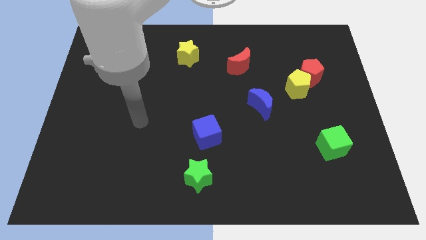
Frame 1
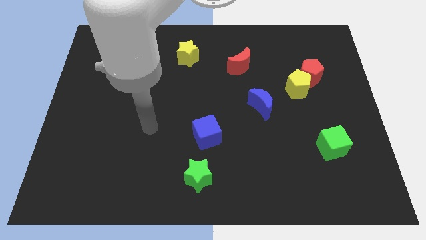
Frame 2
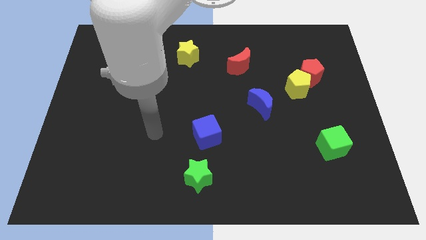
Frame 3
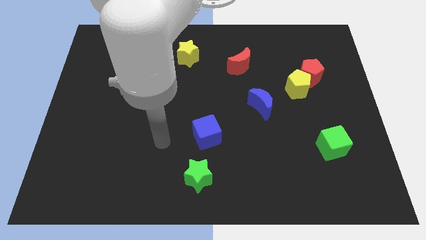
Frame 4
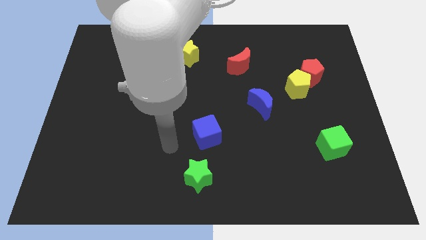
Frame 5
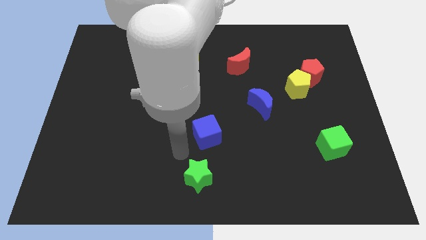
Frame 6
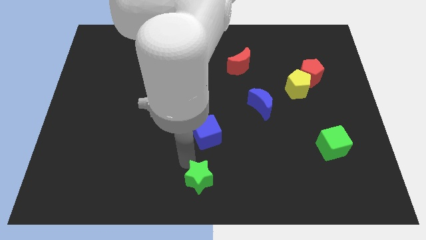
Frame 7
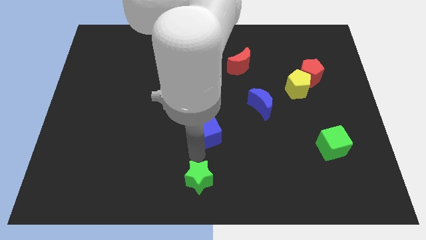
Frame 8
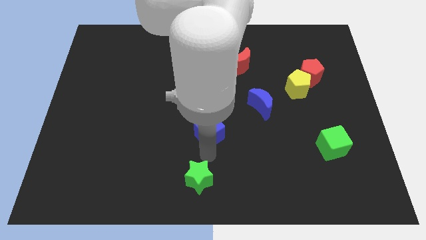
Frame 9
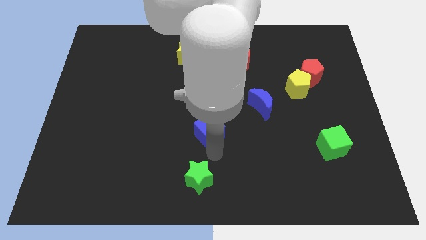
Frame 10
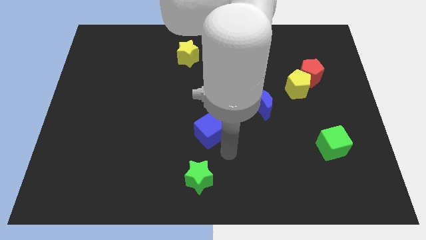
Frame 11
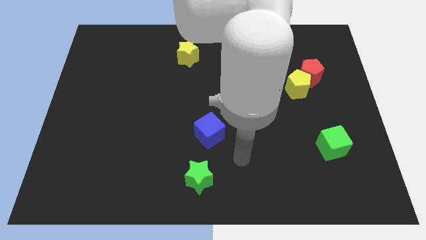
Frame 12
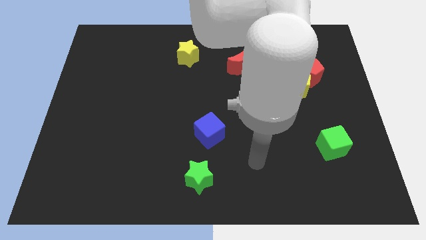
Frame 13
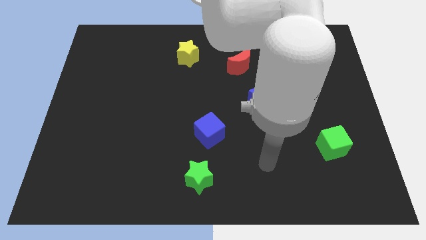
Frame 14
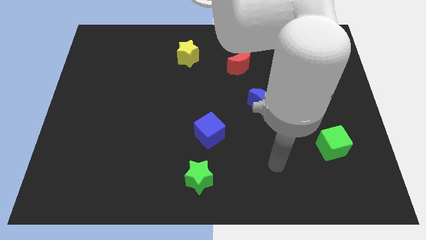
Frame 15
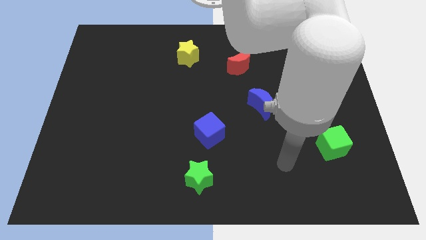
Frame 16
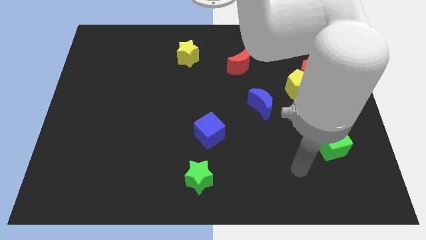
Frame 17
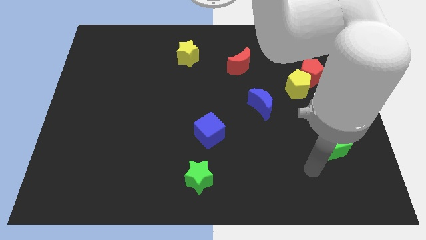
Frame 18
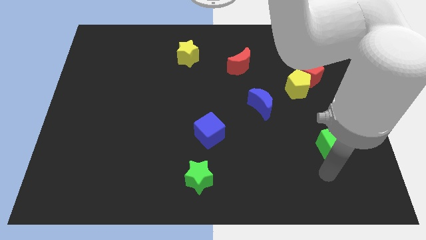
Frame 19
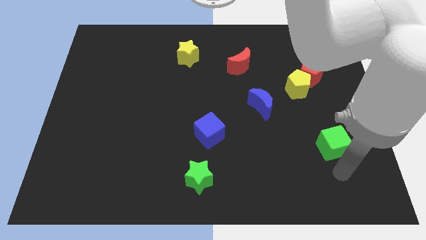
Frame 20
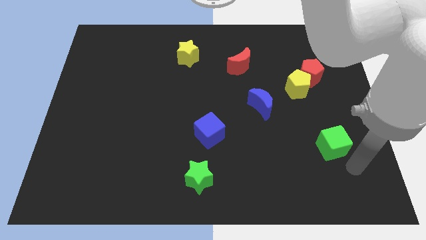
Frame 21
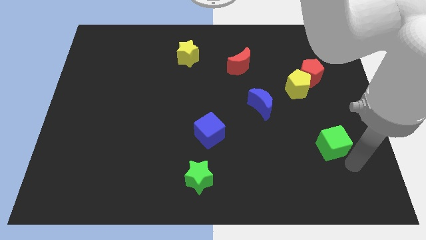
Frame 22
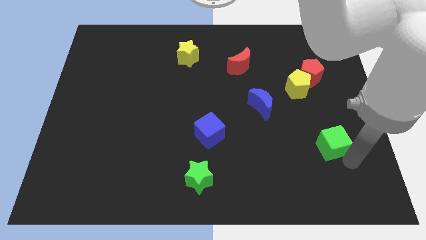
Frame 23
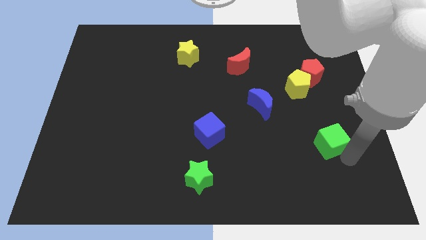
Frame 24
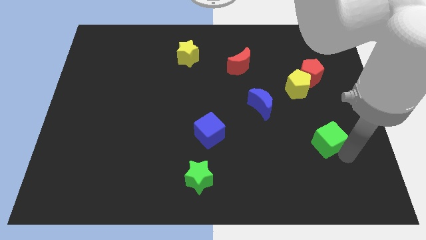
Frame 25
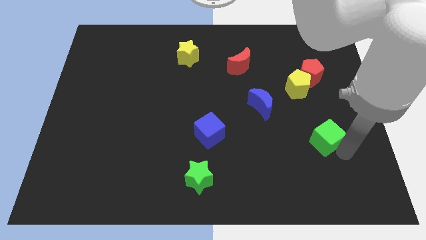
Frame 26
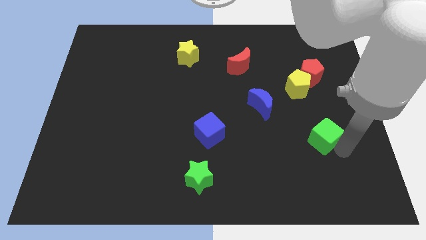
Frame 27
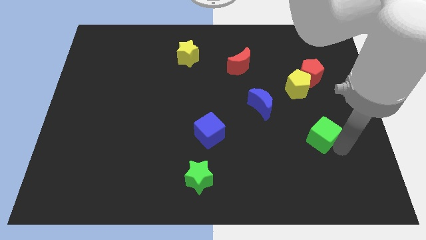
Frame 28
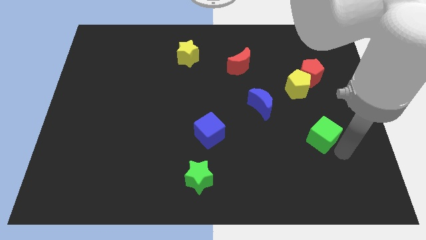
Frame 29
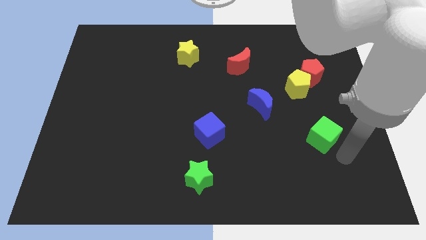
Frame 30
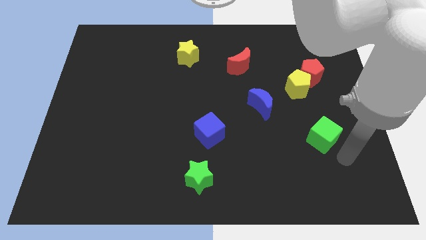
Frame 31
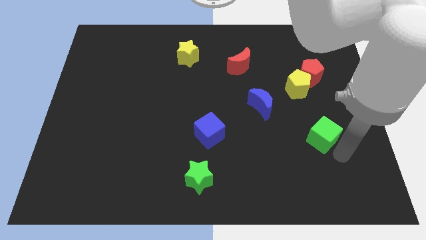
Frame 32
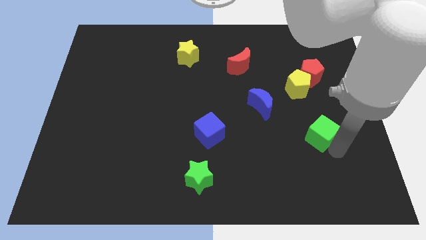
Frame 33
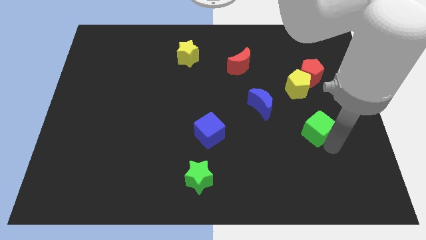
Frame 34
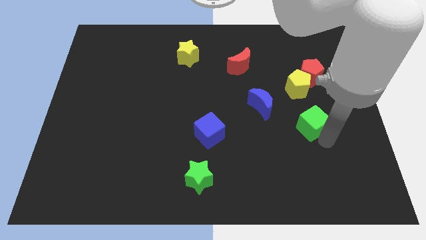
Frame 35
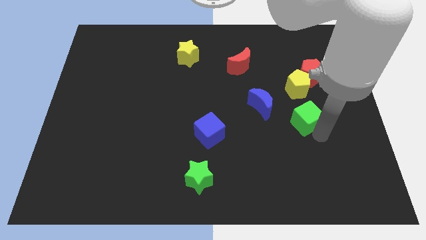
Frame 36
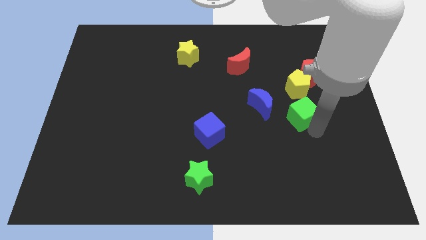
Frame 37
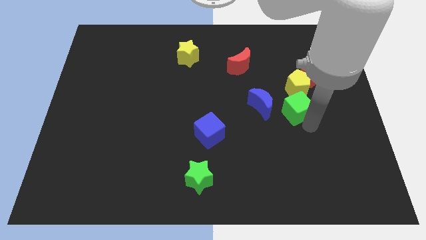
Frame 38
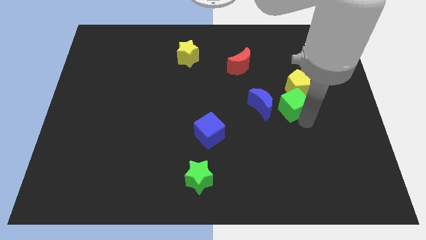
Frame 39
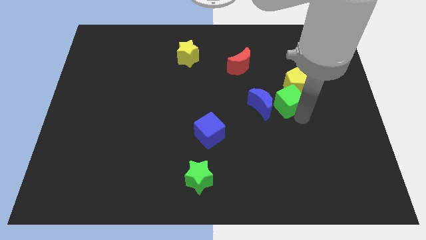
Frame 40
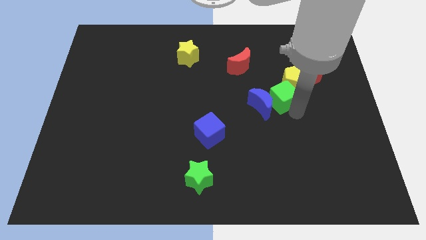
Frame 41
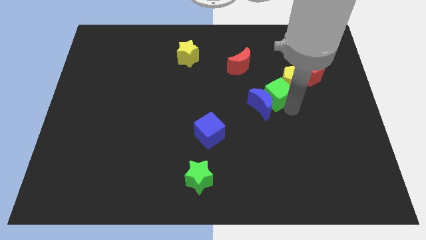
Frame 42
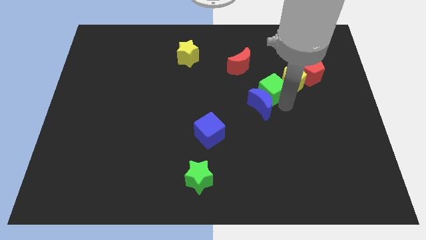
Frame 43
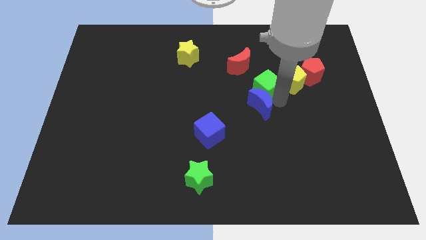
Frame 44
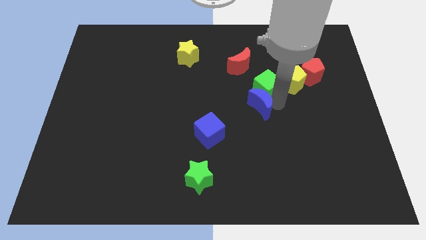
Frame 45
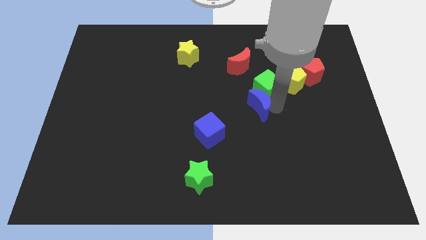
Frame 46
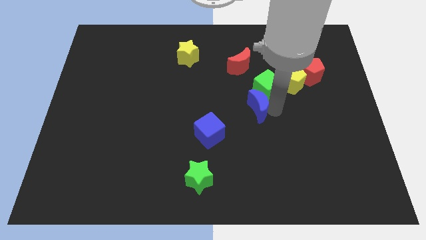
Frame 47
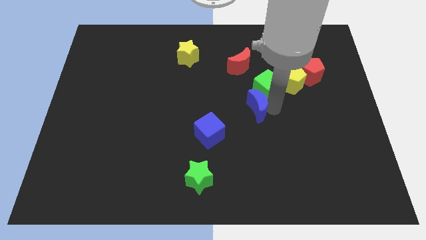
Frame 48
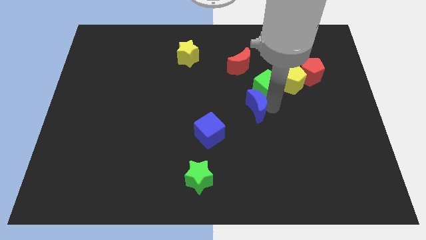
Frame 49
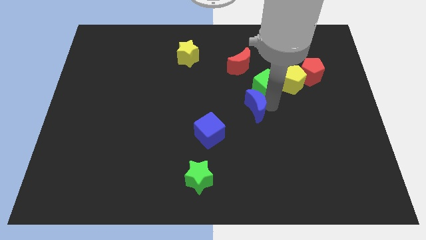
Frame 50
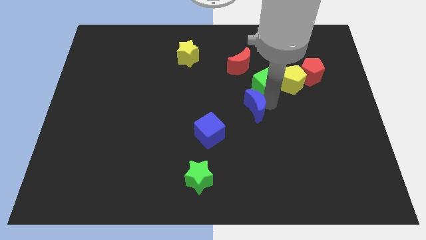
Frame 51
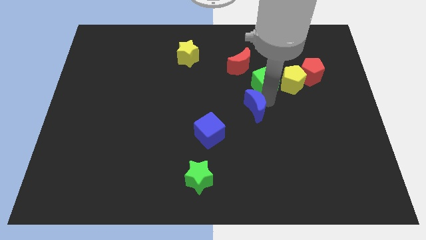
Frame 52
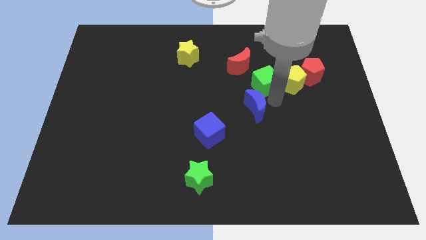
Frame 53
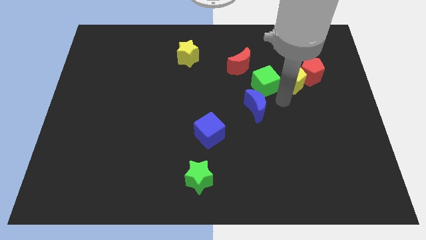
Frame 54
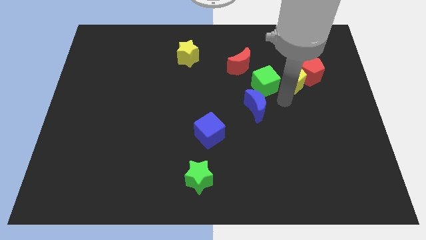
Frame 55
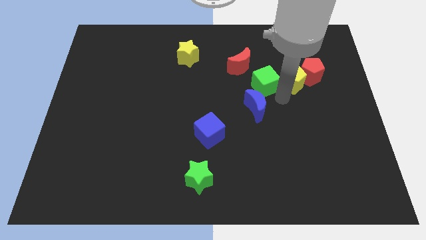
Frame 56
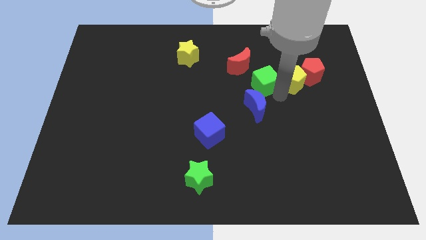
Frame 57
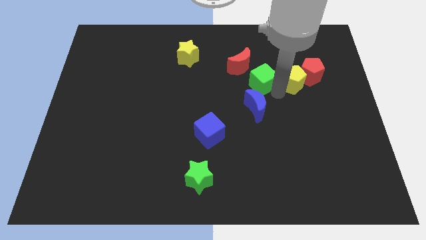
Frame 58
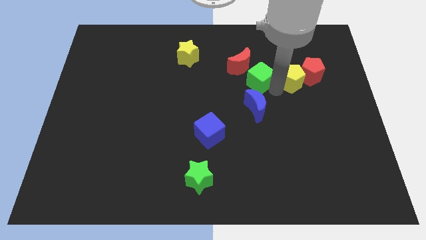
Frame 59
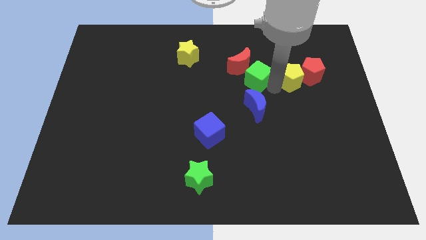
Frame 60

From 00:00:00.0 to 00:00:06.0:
slide the green cube next to the red moon
